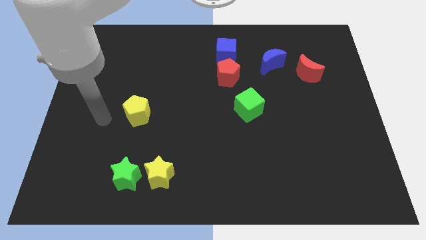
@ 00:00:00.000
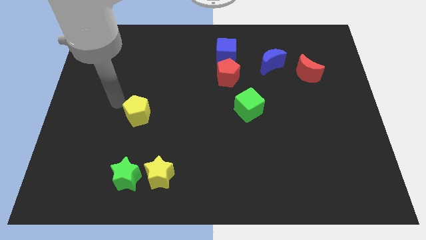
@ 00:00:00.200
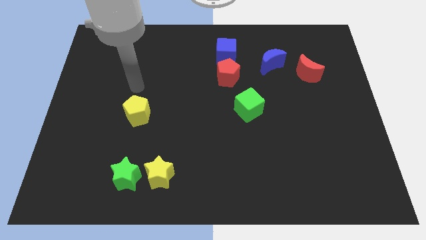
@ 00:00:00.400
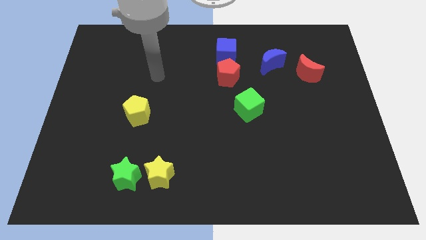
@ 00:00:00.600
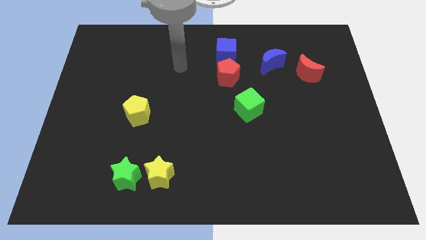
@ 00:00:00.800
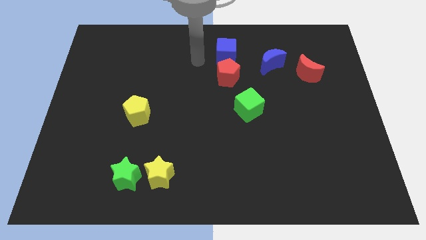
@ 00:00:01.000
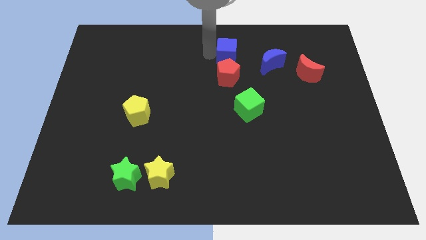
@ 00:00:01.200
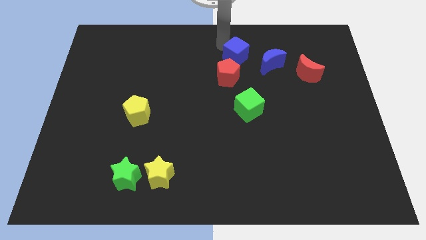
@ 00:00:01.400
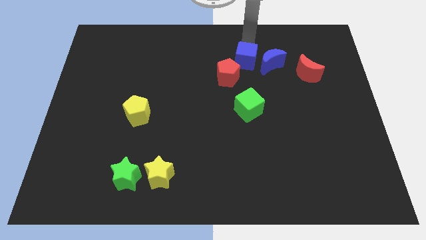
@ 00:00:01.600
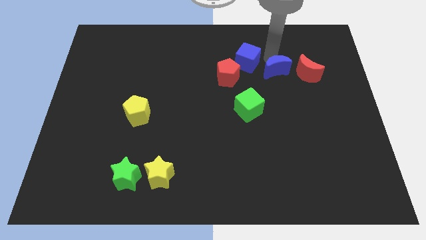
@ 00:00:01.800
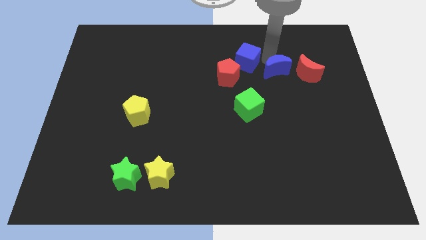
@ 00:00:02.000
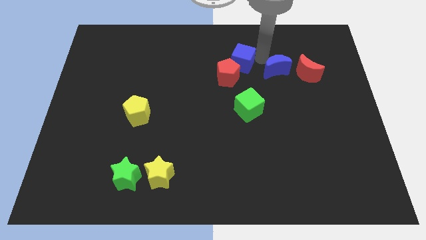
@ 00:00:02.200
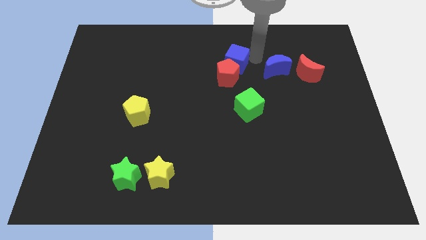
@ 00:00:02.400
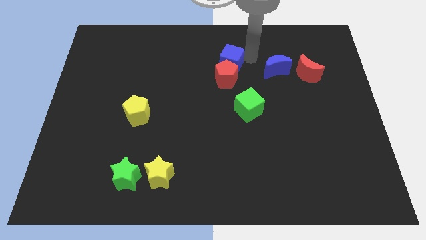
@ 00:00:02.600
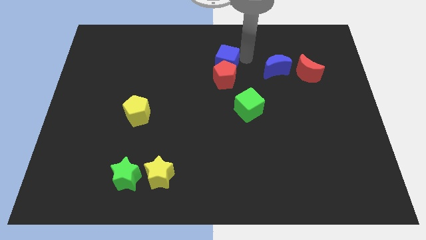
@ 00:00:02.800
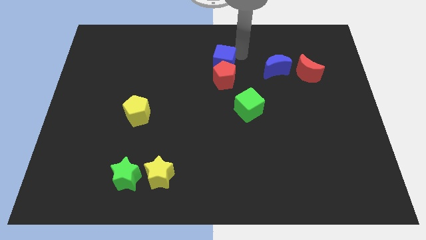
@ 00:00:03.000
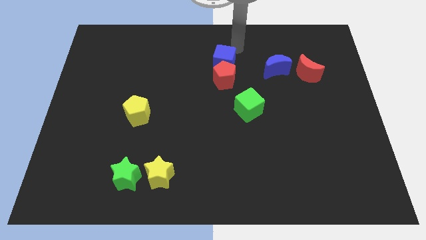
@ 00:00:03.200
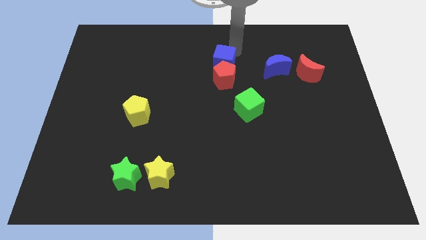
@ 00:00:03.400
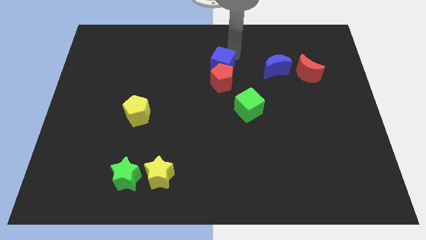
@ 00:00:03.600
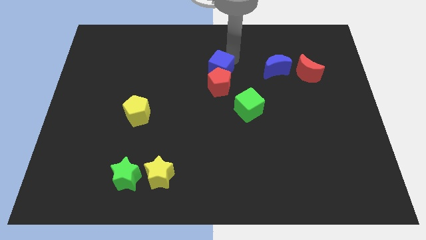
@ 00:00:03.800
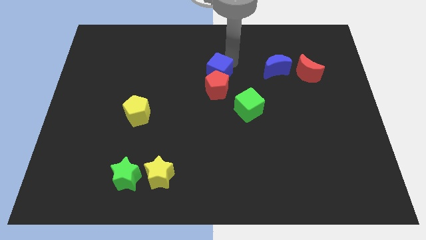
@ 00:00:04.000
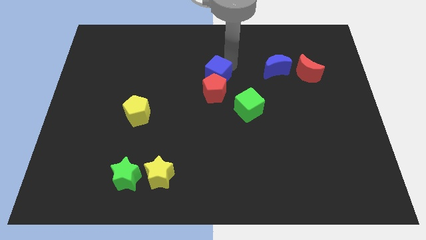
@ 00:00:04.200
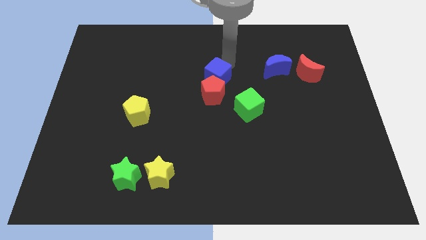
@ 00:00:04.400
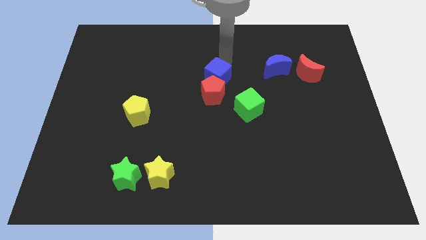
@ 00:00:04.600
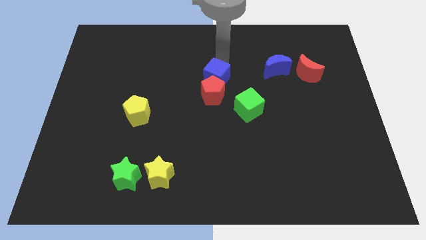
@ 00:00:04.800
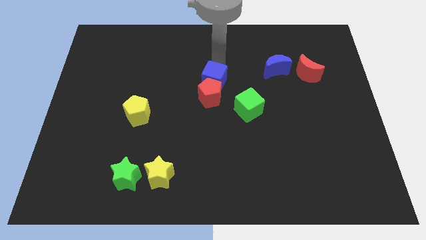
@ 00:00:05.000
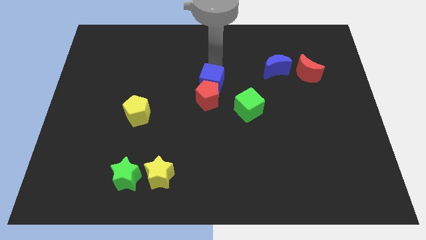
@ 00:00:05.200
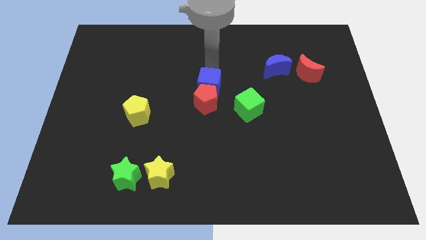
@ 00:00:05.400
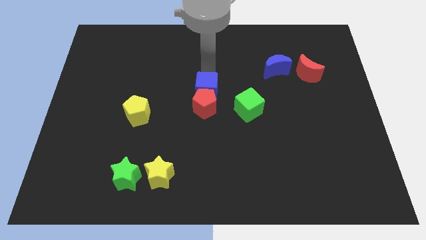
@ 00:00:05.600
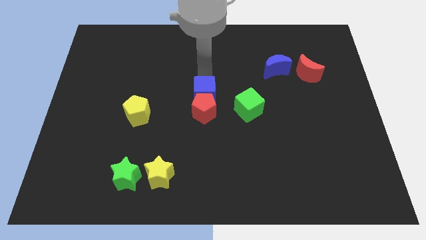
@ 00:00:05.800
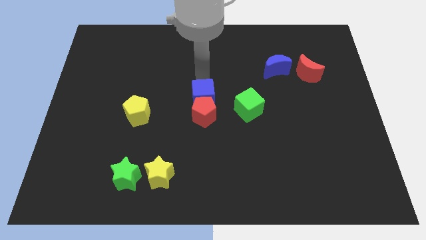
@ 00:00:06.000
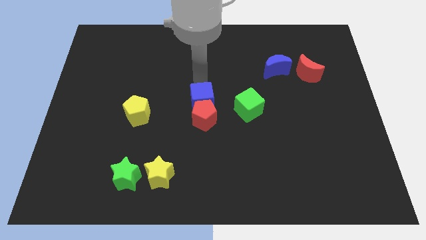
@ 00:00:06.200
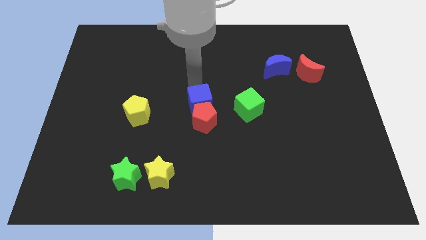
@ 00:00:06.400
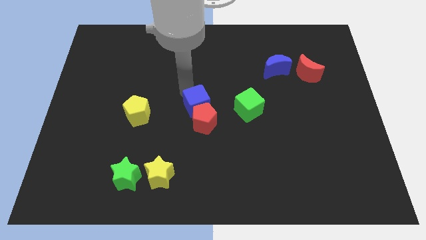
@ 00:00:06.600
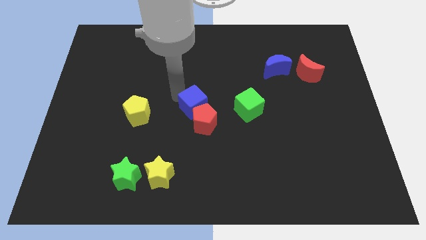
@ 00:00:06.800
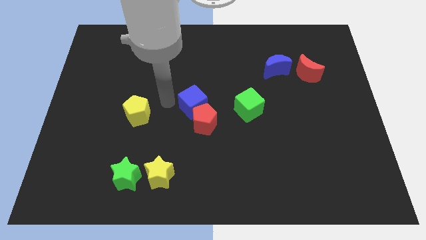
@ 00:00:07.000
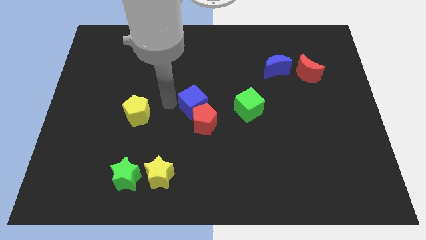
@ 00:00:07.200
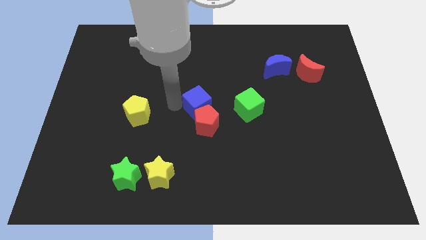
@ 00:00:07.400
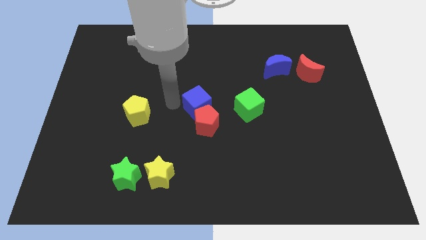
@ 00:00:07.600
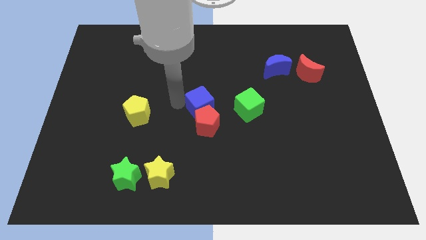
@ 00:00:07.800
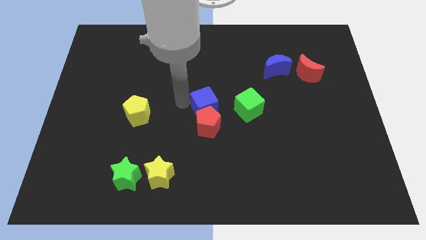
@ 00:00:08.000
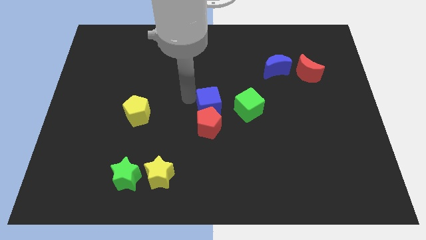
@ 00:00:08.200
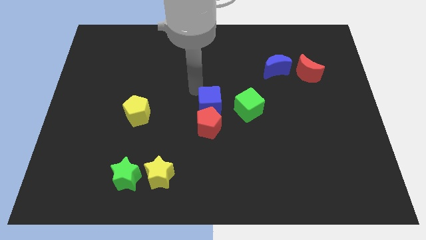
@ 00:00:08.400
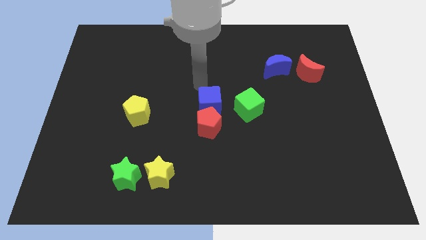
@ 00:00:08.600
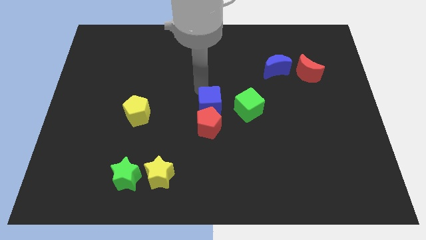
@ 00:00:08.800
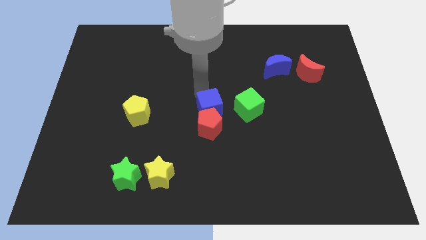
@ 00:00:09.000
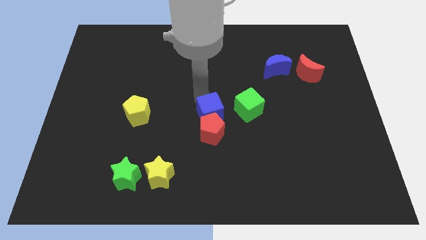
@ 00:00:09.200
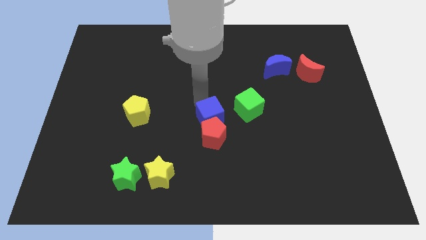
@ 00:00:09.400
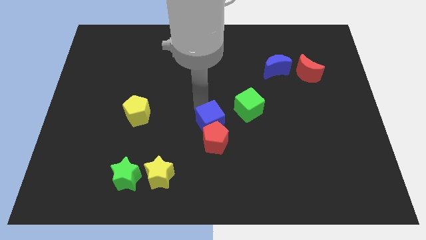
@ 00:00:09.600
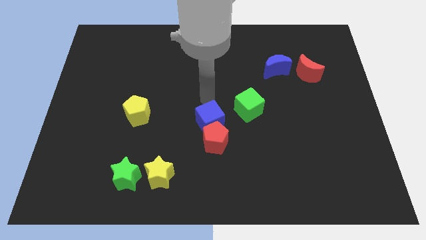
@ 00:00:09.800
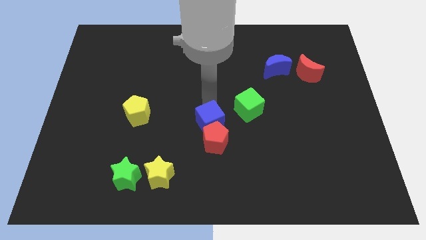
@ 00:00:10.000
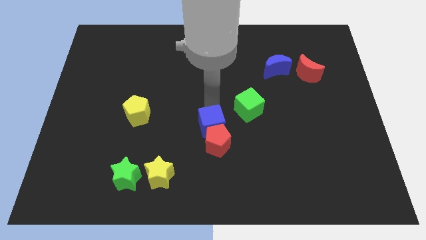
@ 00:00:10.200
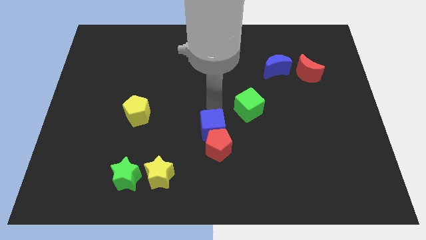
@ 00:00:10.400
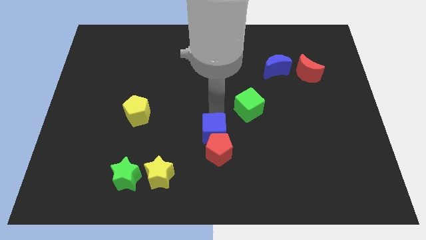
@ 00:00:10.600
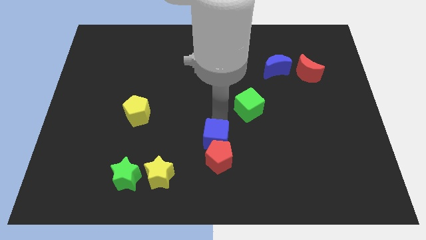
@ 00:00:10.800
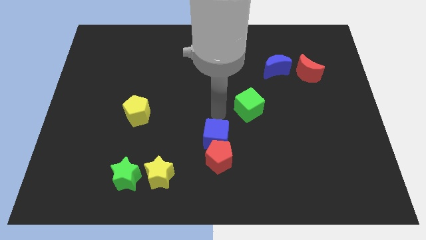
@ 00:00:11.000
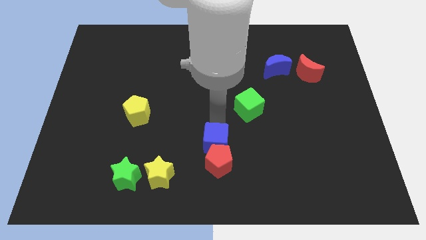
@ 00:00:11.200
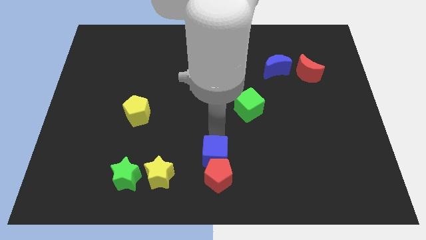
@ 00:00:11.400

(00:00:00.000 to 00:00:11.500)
slide the blue cube to the bottom side
